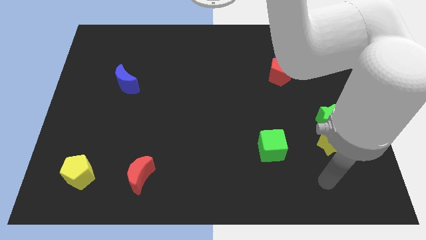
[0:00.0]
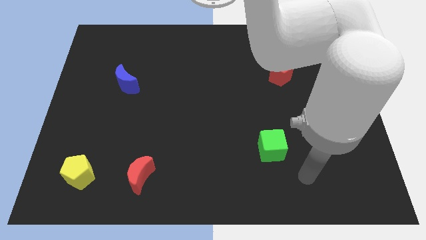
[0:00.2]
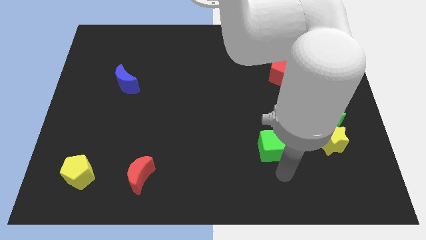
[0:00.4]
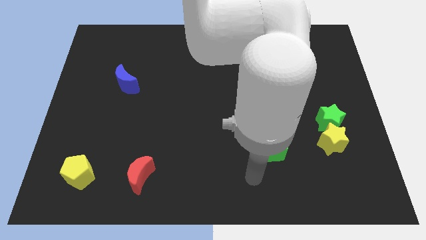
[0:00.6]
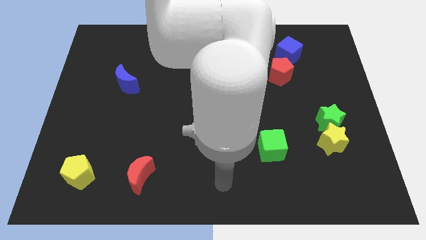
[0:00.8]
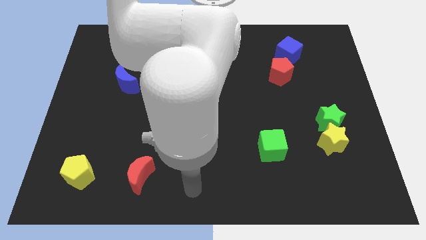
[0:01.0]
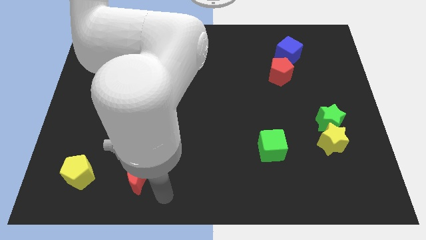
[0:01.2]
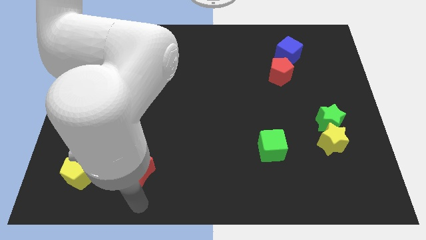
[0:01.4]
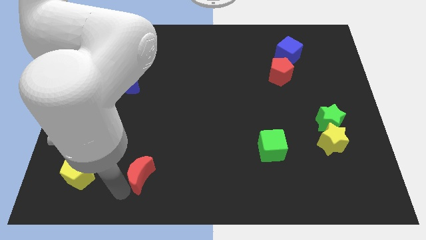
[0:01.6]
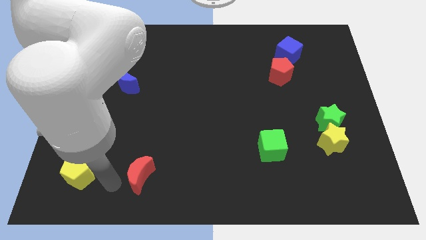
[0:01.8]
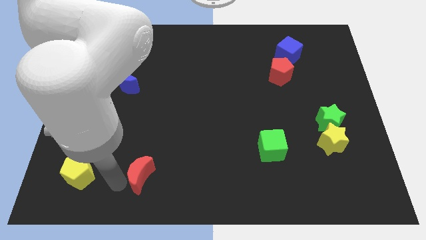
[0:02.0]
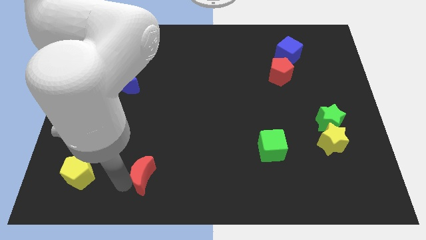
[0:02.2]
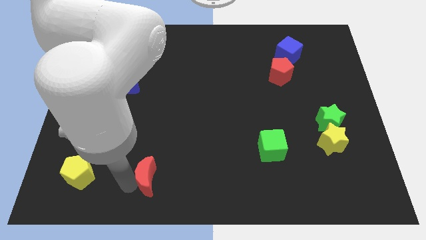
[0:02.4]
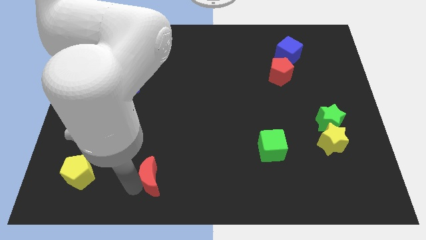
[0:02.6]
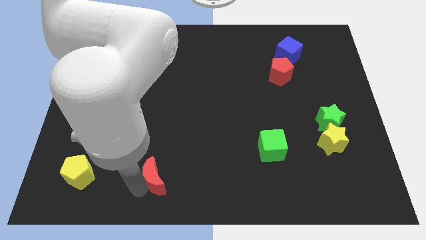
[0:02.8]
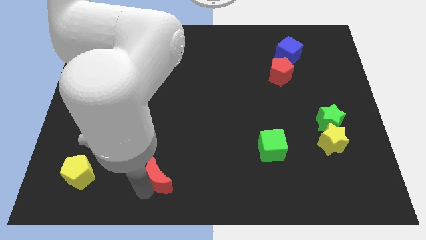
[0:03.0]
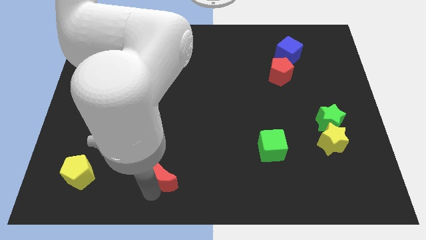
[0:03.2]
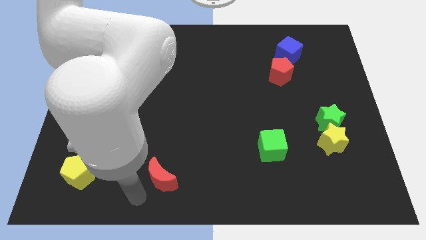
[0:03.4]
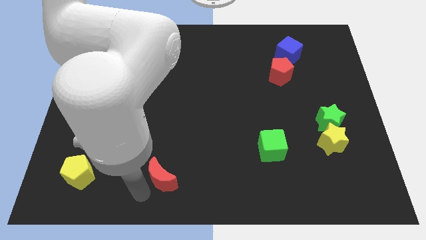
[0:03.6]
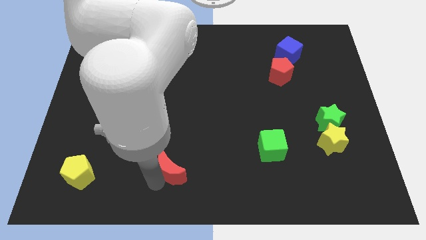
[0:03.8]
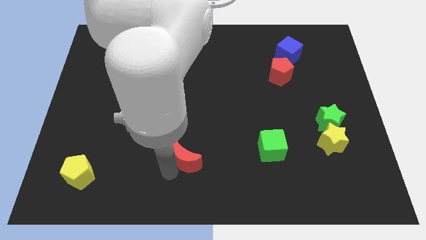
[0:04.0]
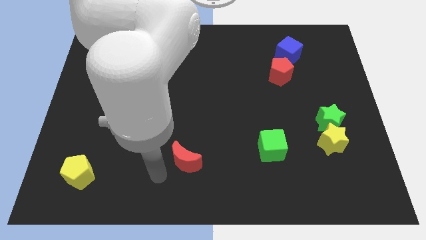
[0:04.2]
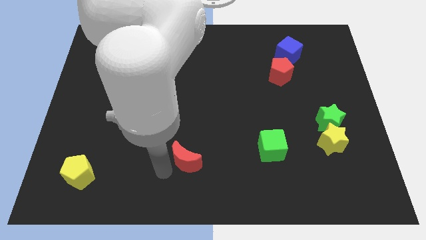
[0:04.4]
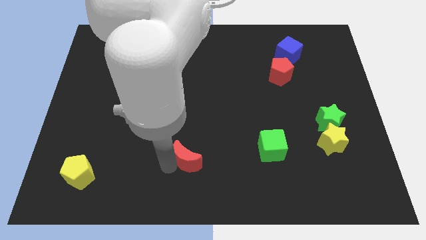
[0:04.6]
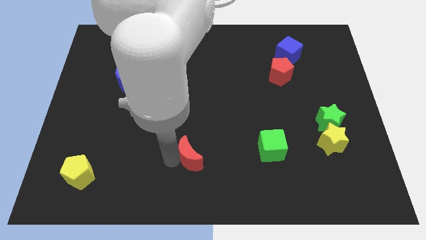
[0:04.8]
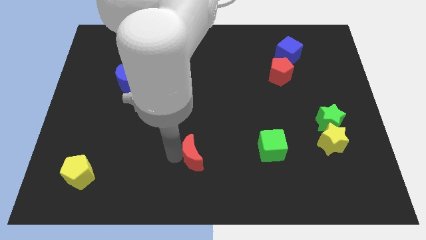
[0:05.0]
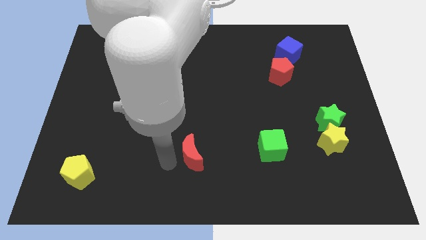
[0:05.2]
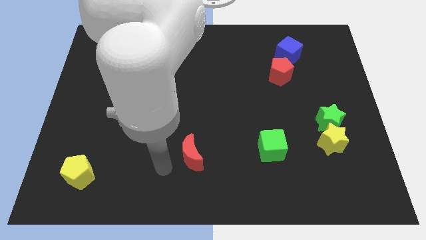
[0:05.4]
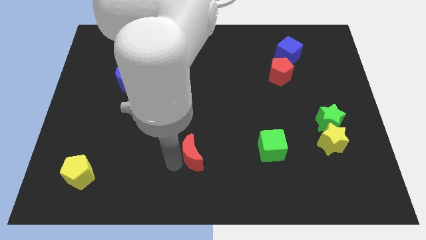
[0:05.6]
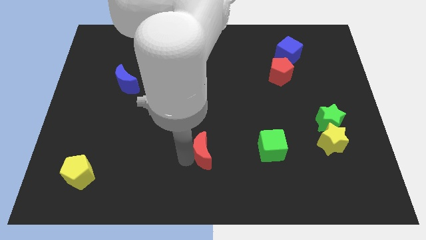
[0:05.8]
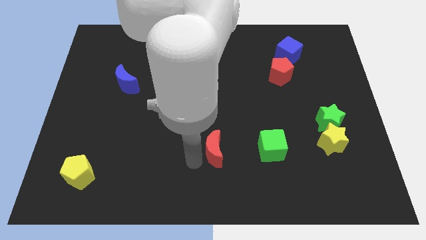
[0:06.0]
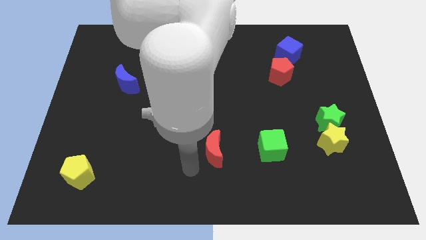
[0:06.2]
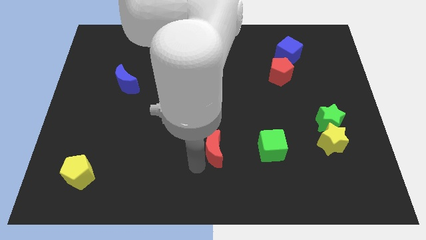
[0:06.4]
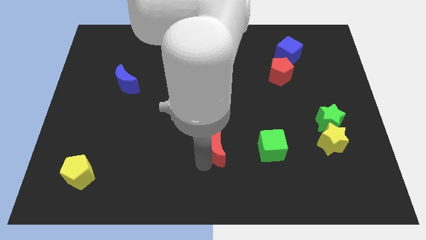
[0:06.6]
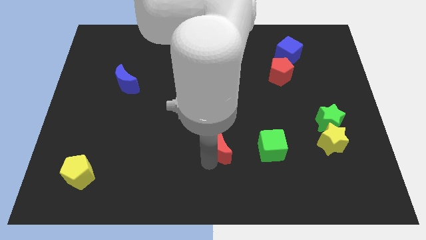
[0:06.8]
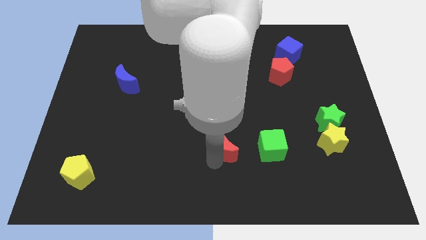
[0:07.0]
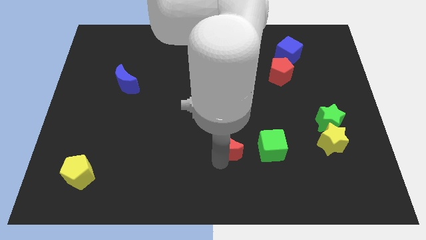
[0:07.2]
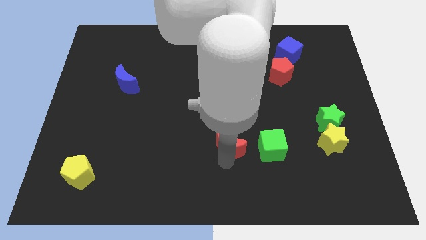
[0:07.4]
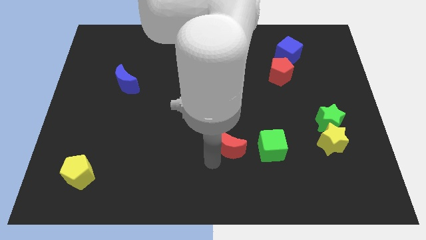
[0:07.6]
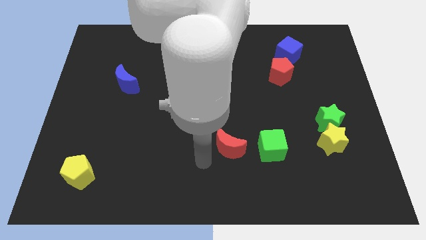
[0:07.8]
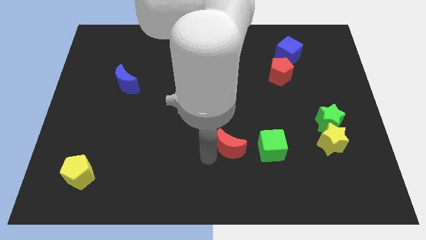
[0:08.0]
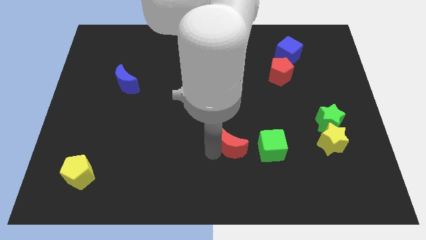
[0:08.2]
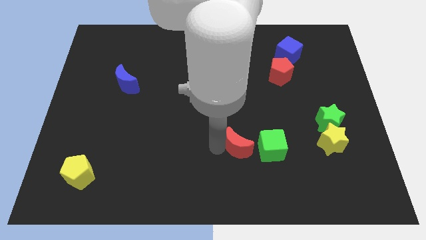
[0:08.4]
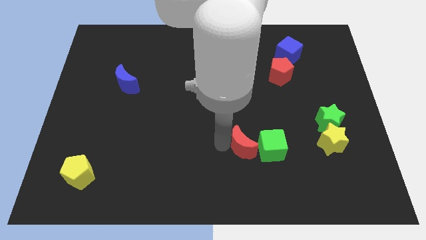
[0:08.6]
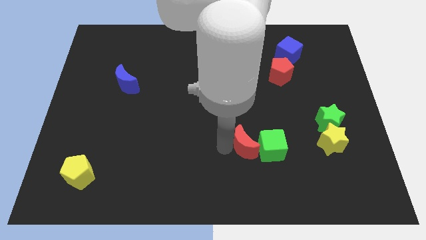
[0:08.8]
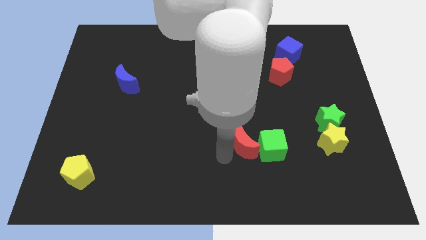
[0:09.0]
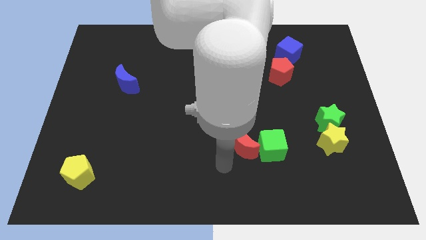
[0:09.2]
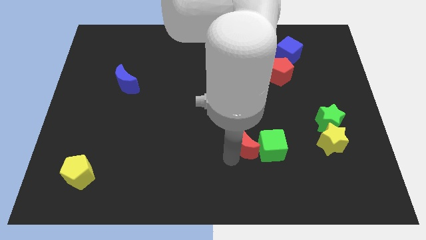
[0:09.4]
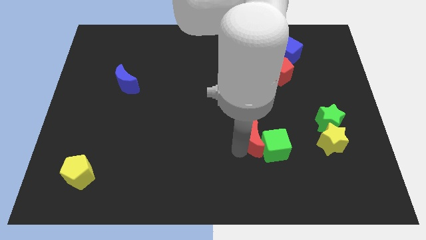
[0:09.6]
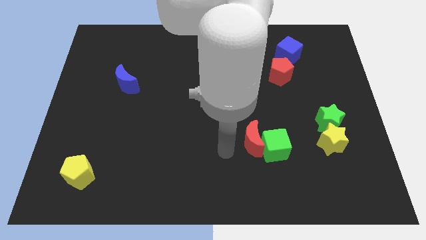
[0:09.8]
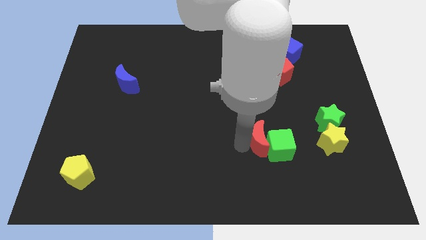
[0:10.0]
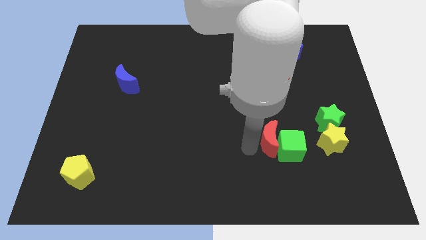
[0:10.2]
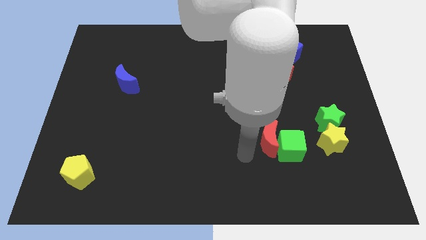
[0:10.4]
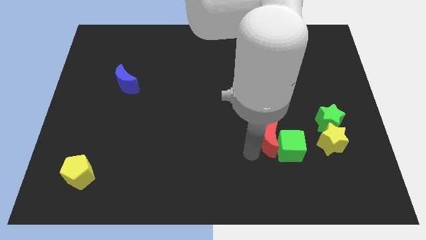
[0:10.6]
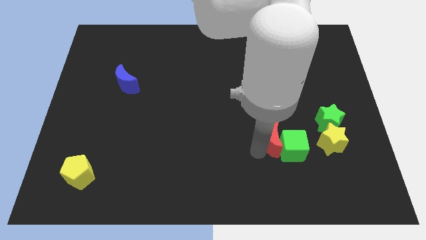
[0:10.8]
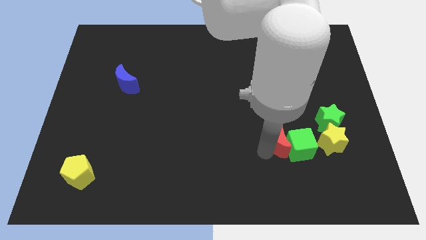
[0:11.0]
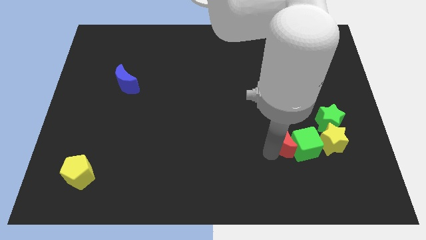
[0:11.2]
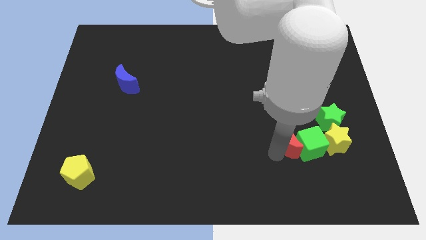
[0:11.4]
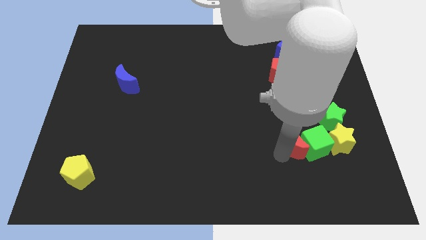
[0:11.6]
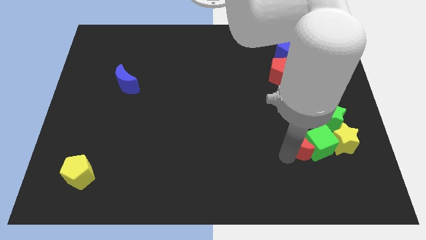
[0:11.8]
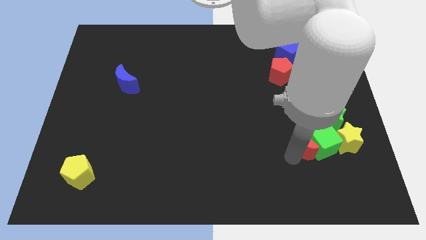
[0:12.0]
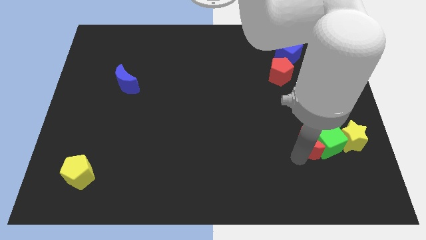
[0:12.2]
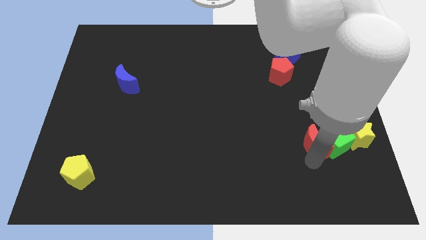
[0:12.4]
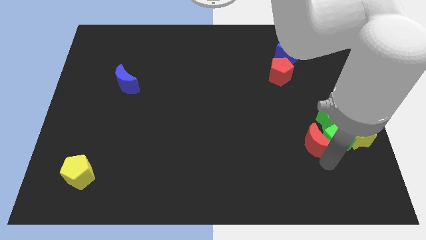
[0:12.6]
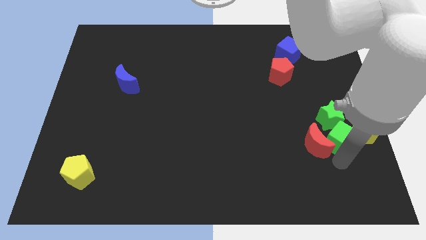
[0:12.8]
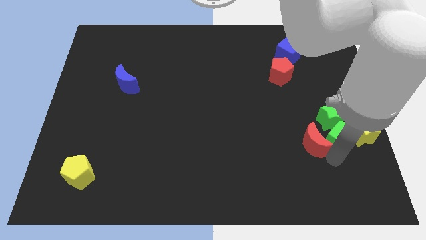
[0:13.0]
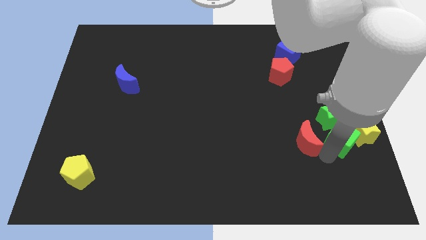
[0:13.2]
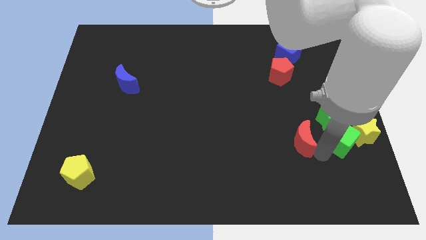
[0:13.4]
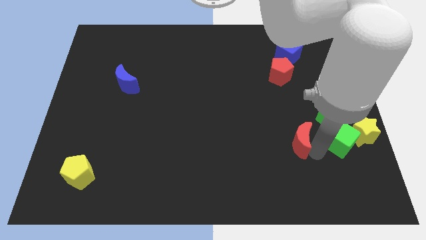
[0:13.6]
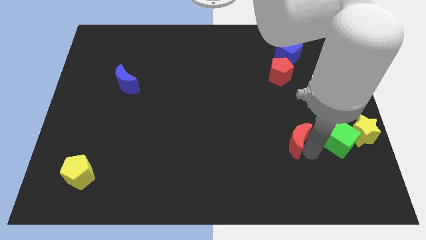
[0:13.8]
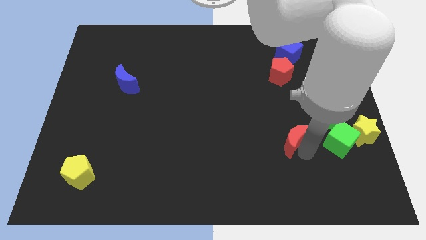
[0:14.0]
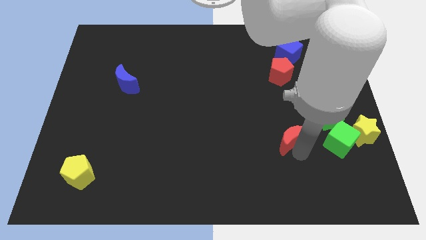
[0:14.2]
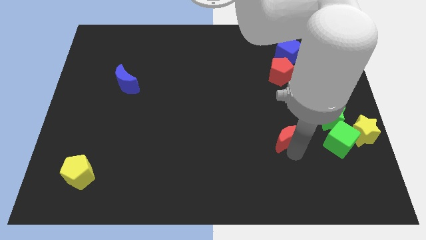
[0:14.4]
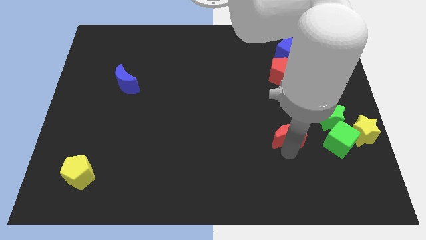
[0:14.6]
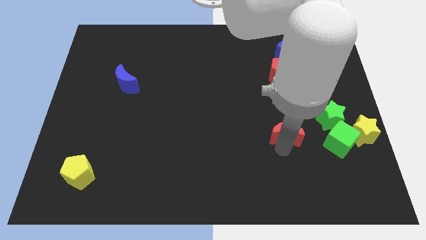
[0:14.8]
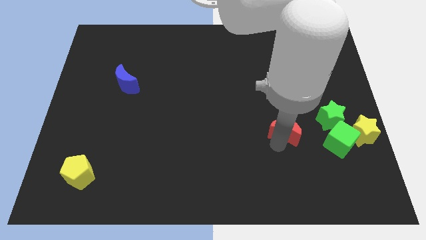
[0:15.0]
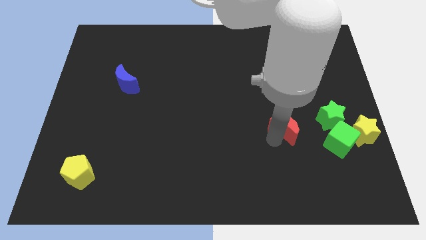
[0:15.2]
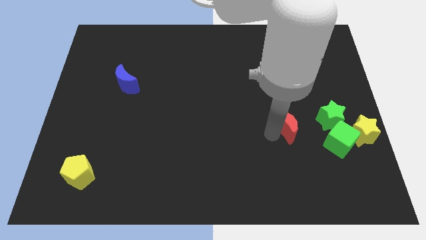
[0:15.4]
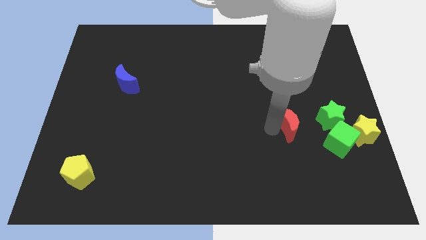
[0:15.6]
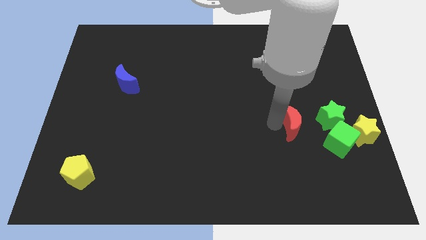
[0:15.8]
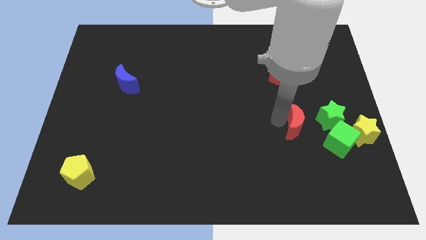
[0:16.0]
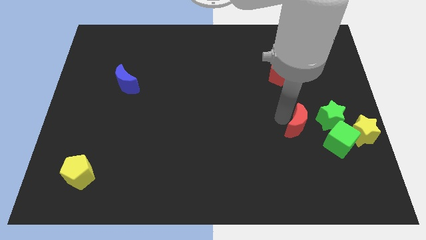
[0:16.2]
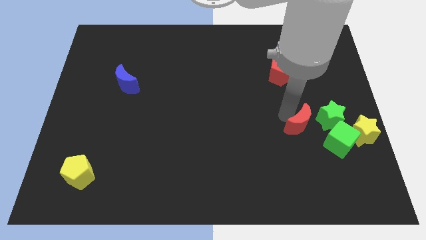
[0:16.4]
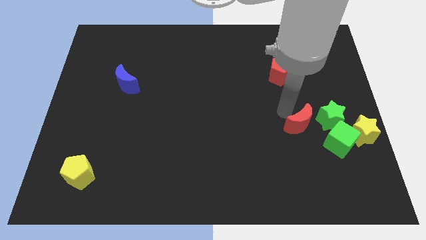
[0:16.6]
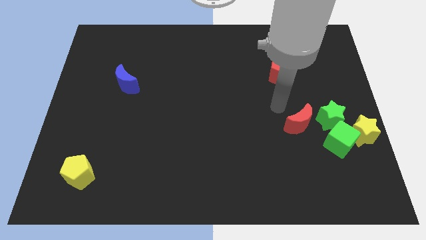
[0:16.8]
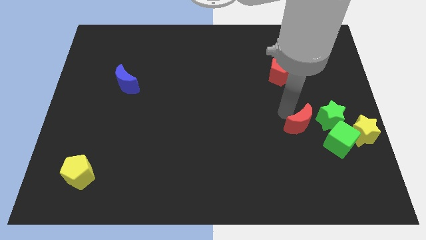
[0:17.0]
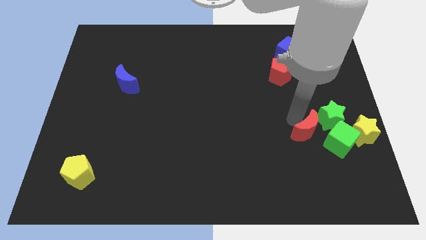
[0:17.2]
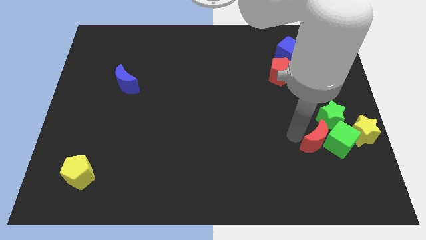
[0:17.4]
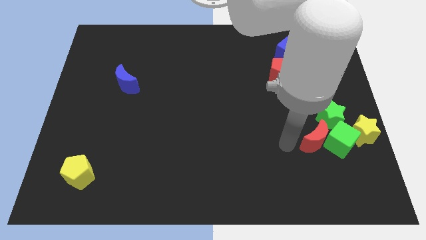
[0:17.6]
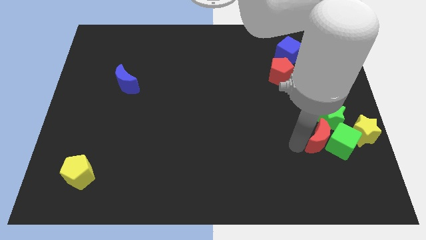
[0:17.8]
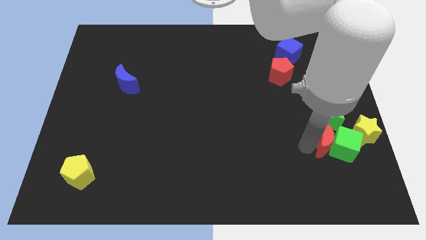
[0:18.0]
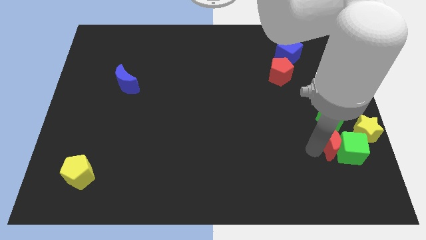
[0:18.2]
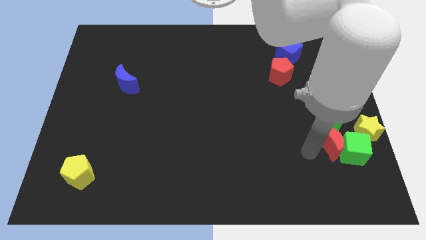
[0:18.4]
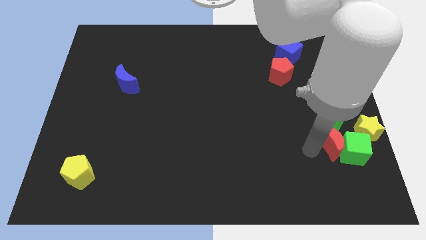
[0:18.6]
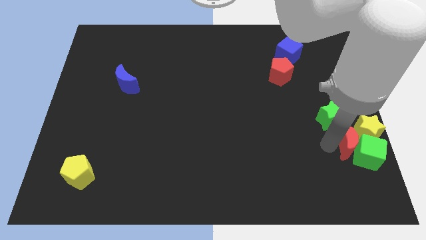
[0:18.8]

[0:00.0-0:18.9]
push the red moon towards the yellow star
